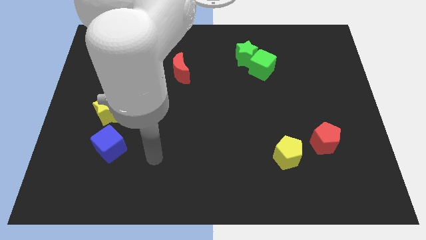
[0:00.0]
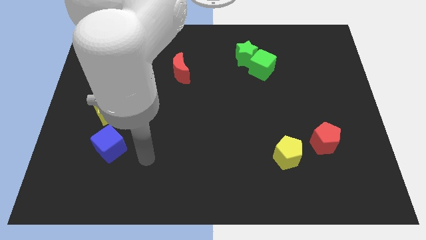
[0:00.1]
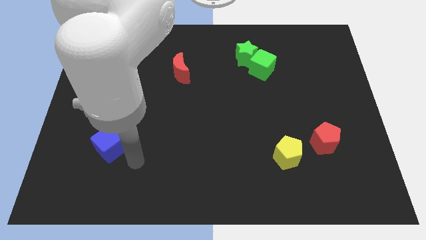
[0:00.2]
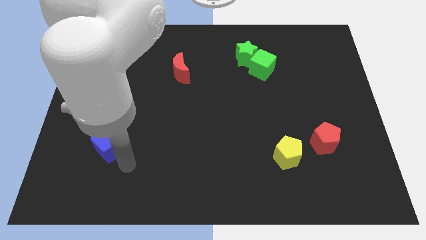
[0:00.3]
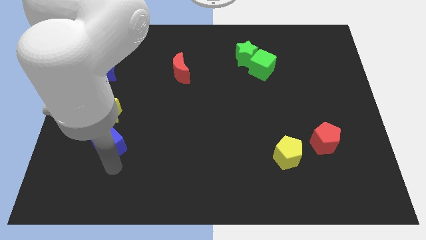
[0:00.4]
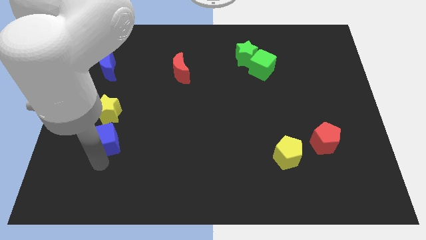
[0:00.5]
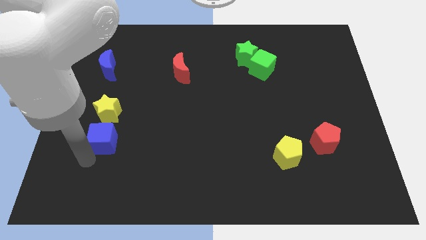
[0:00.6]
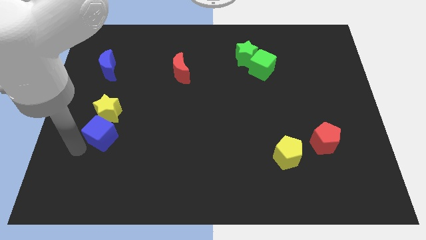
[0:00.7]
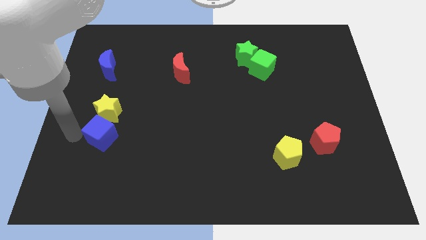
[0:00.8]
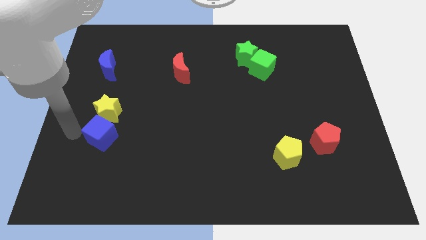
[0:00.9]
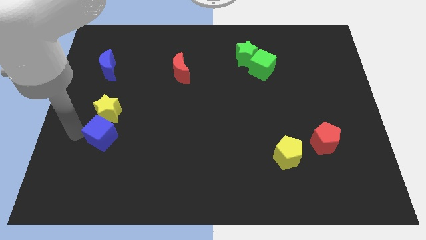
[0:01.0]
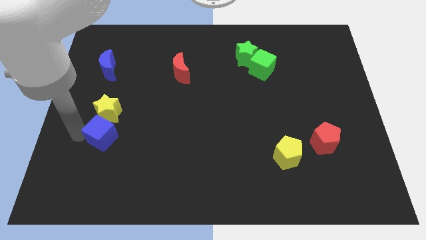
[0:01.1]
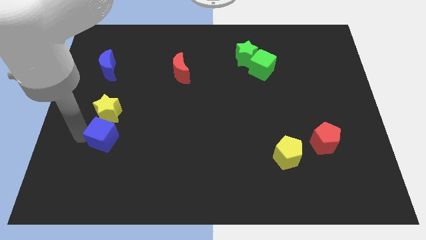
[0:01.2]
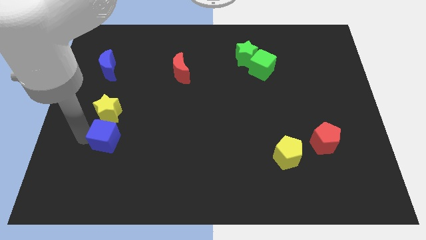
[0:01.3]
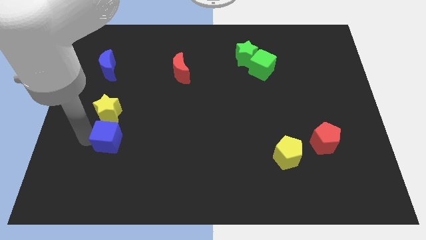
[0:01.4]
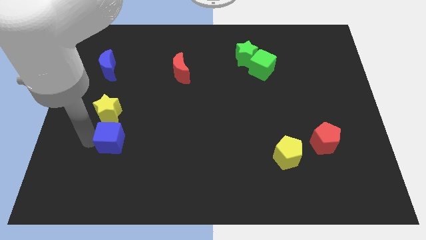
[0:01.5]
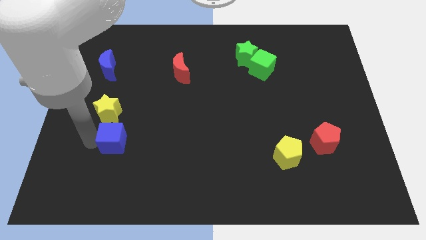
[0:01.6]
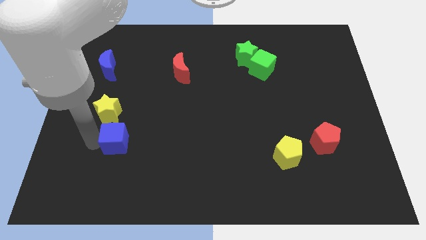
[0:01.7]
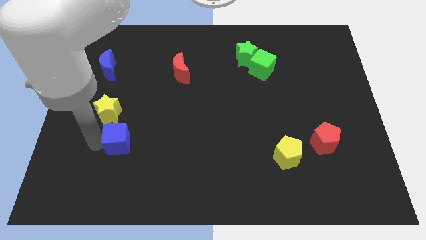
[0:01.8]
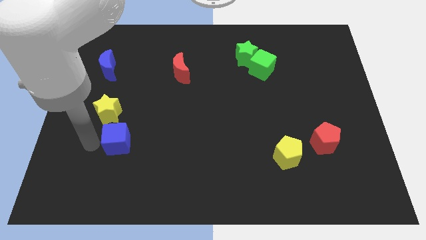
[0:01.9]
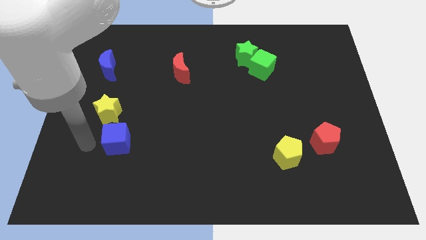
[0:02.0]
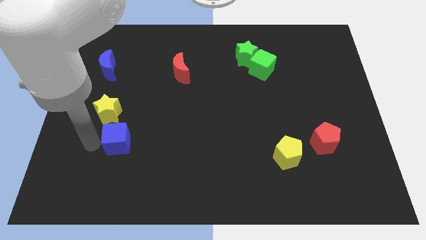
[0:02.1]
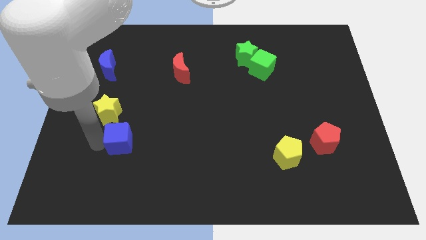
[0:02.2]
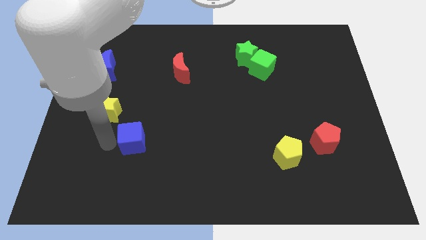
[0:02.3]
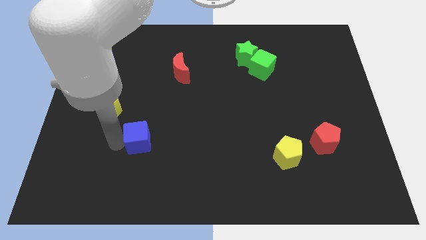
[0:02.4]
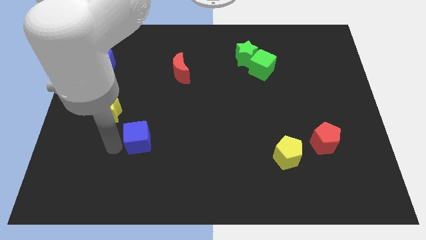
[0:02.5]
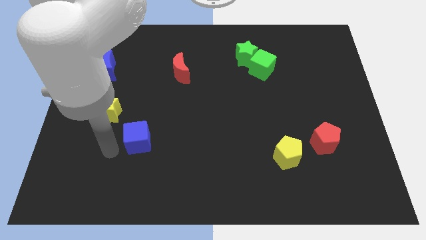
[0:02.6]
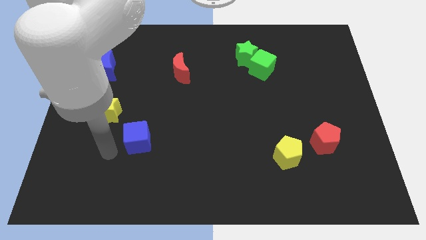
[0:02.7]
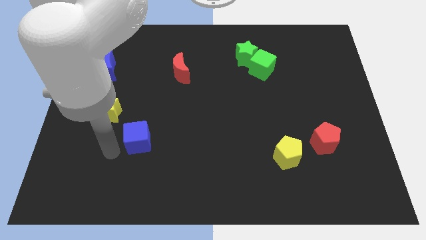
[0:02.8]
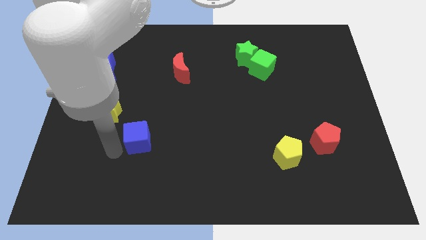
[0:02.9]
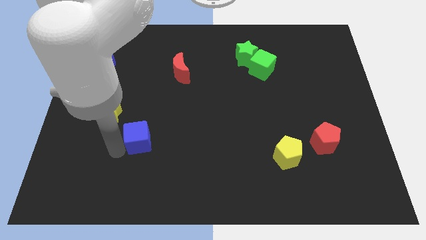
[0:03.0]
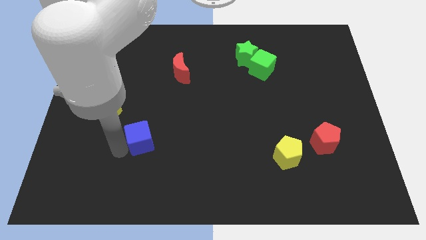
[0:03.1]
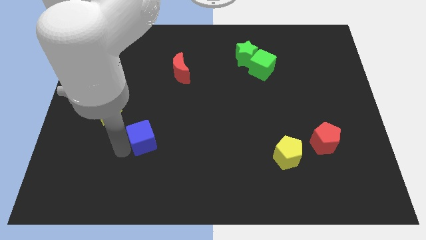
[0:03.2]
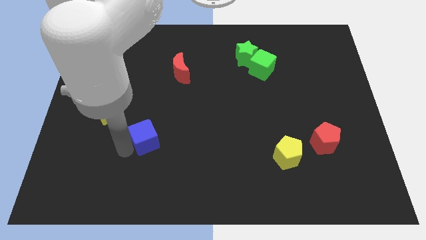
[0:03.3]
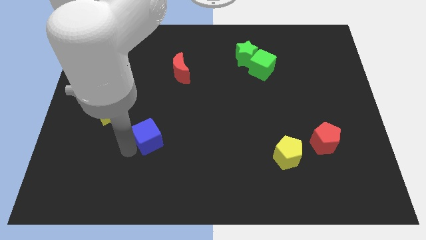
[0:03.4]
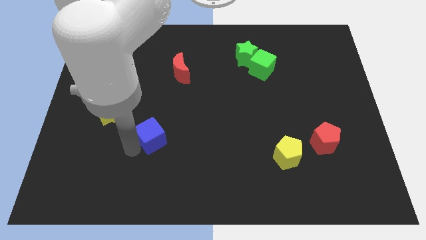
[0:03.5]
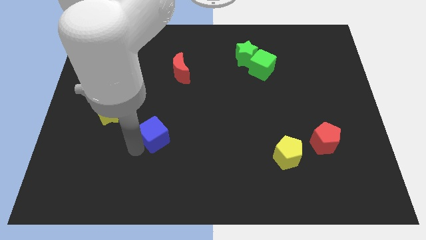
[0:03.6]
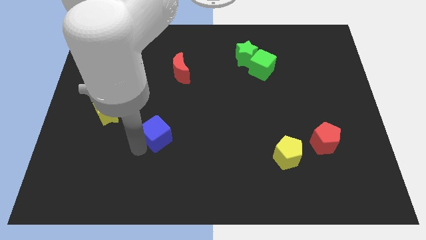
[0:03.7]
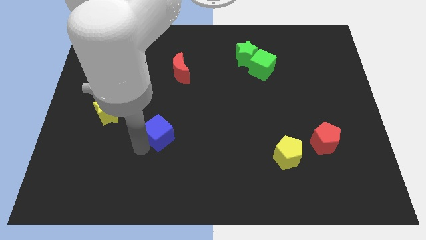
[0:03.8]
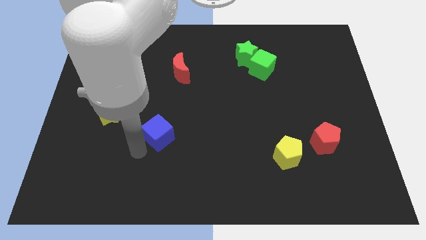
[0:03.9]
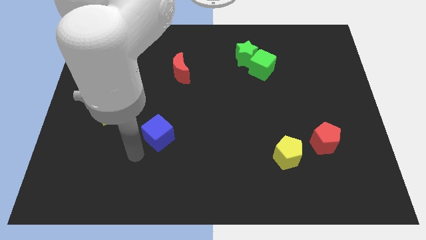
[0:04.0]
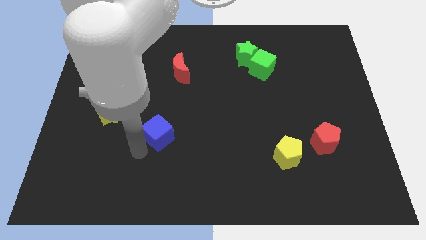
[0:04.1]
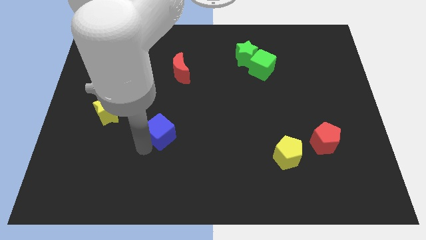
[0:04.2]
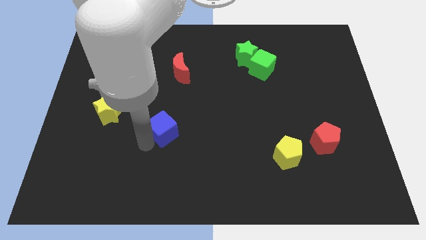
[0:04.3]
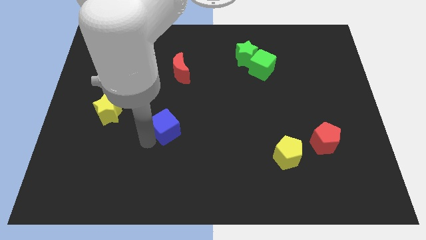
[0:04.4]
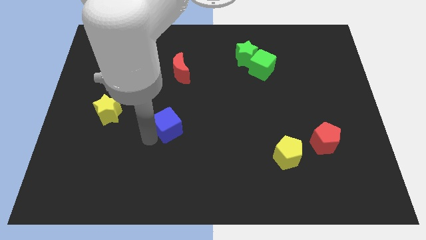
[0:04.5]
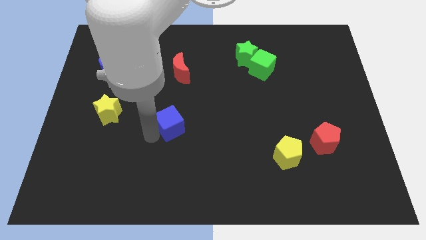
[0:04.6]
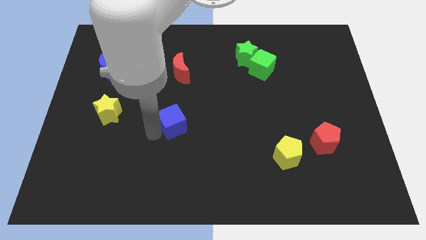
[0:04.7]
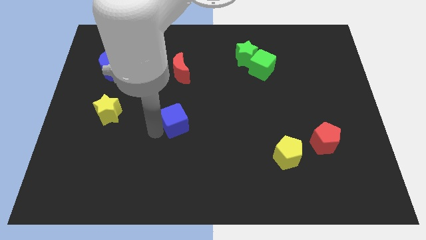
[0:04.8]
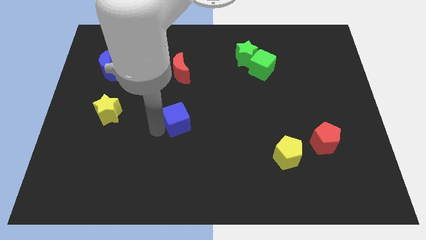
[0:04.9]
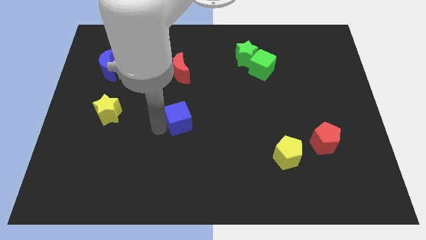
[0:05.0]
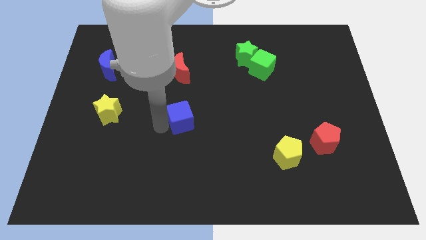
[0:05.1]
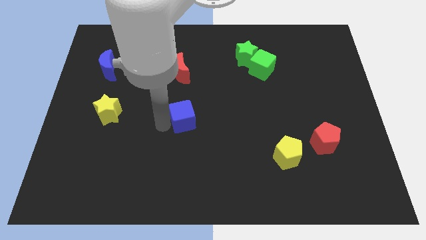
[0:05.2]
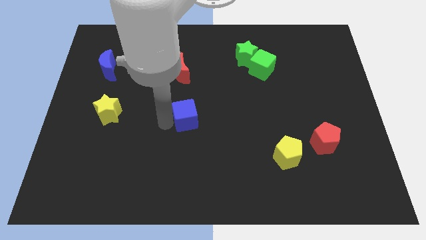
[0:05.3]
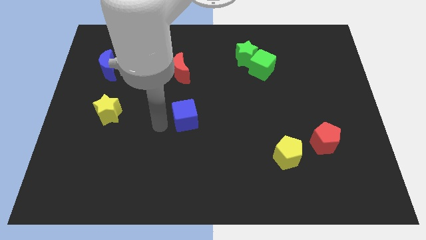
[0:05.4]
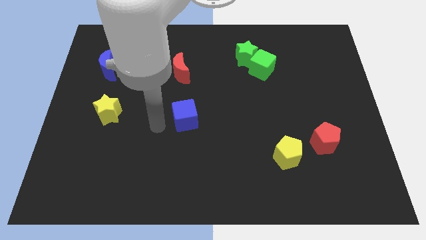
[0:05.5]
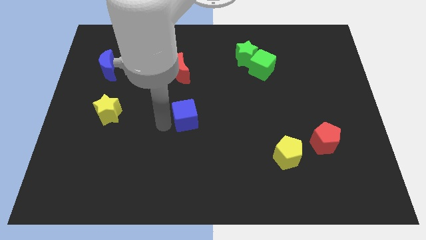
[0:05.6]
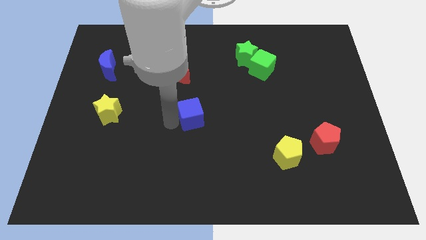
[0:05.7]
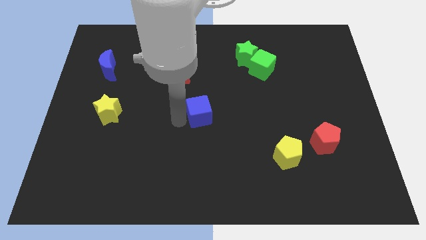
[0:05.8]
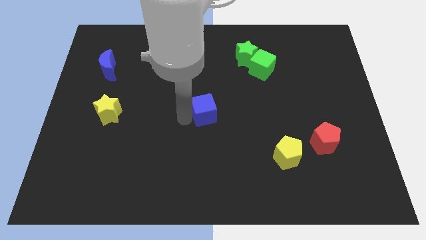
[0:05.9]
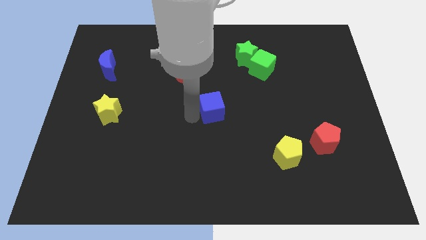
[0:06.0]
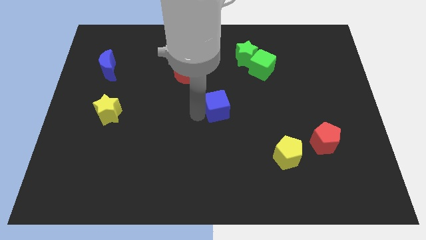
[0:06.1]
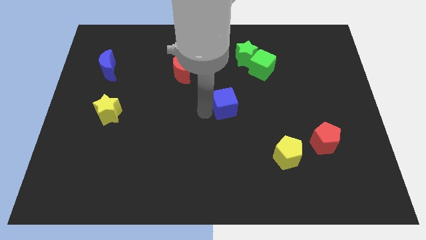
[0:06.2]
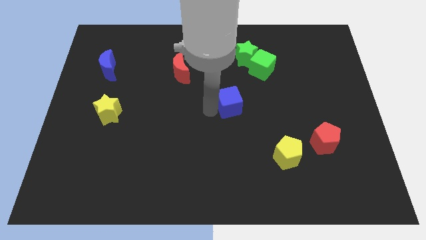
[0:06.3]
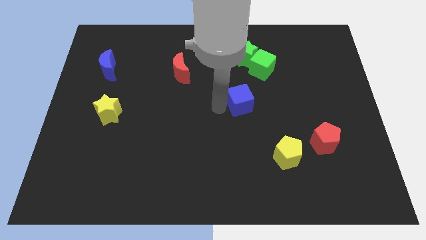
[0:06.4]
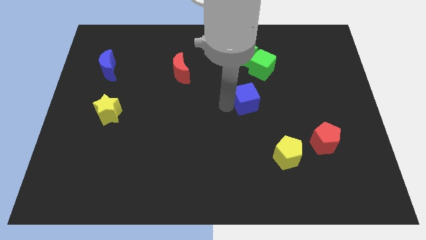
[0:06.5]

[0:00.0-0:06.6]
put the blue cube to the bottom side of the green cube
